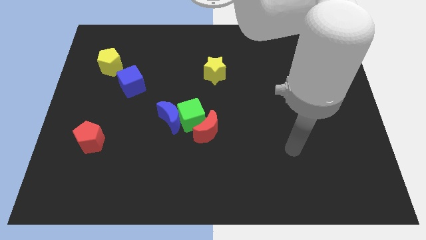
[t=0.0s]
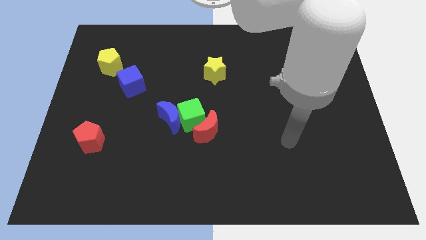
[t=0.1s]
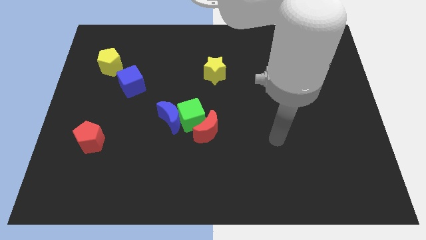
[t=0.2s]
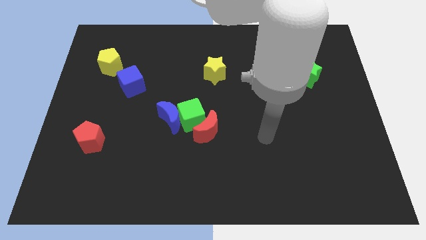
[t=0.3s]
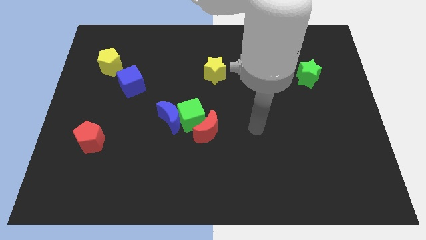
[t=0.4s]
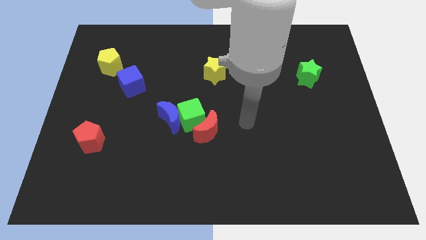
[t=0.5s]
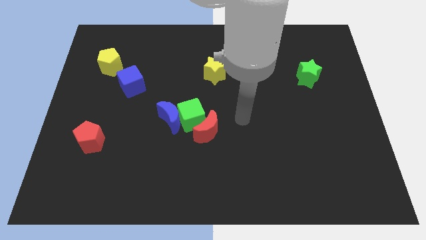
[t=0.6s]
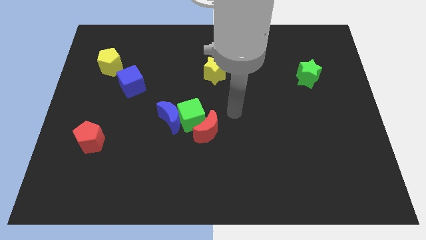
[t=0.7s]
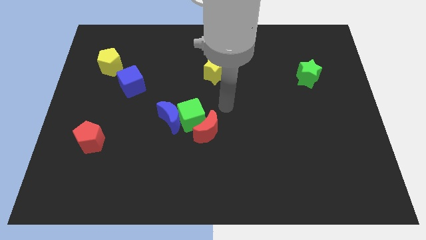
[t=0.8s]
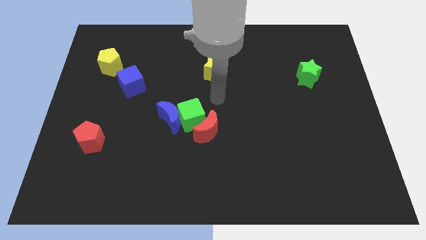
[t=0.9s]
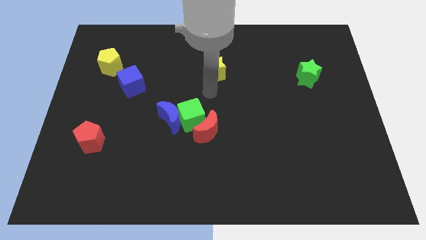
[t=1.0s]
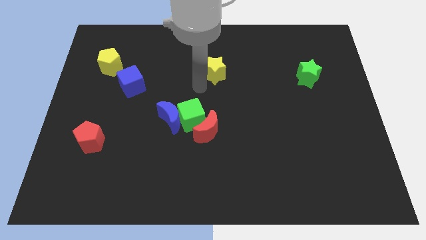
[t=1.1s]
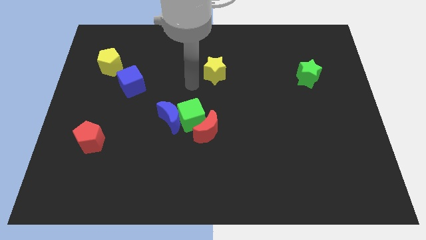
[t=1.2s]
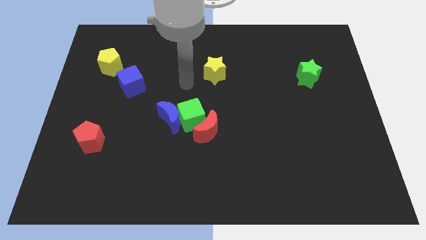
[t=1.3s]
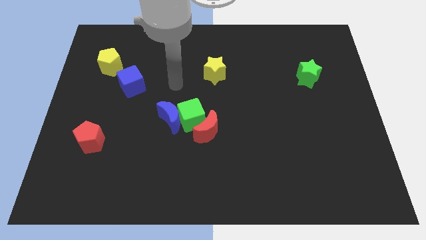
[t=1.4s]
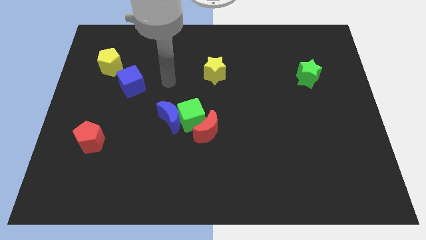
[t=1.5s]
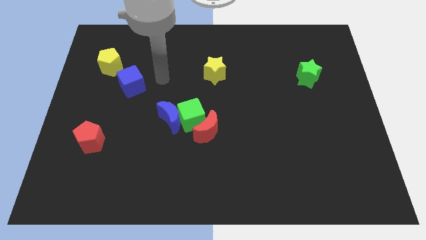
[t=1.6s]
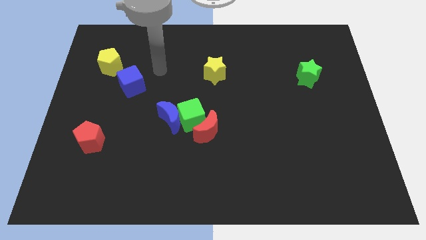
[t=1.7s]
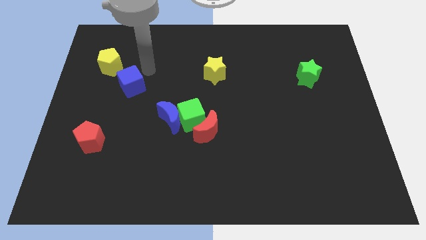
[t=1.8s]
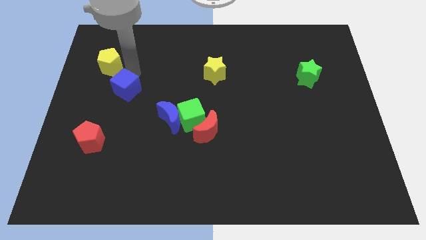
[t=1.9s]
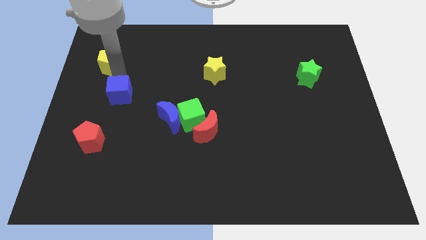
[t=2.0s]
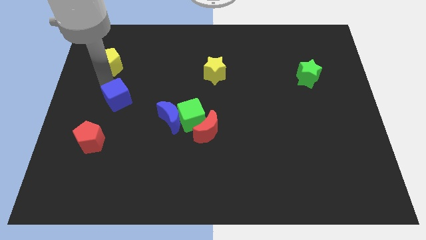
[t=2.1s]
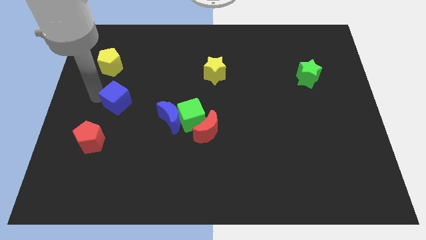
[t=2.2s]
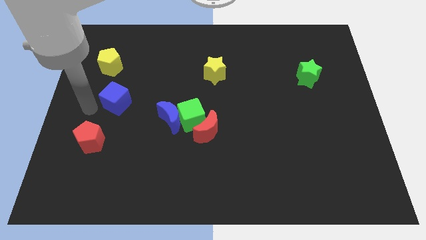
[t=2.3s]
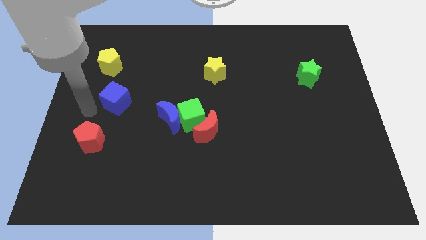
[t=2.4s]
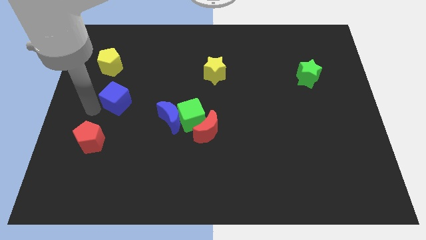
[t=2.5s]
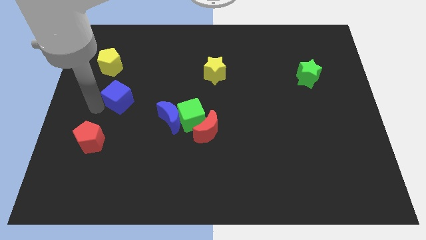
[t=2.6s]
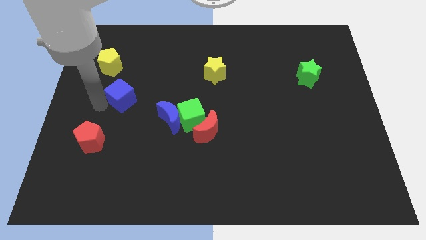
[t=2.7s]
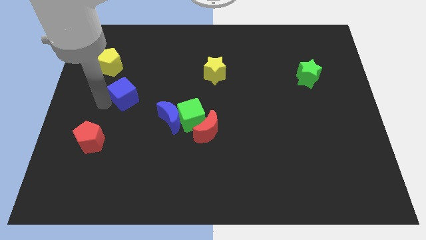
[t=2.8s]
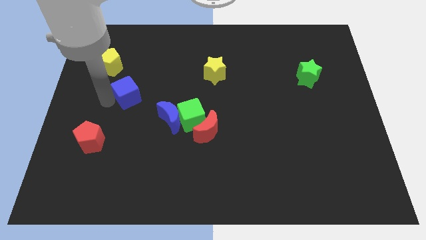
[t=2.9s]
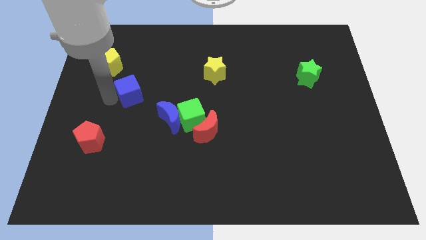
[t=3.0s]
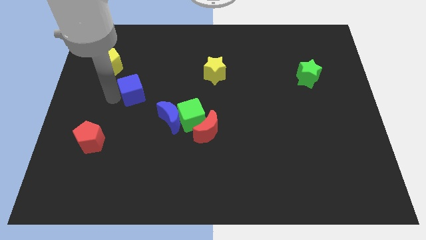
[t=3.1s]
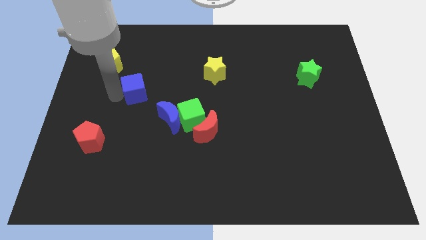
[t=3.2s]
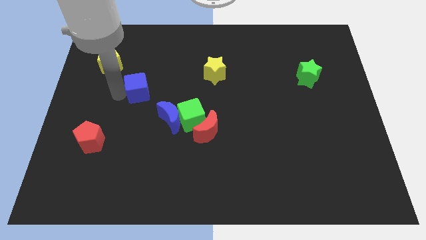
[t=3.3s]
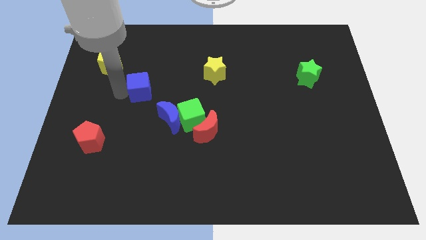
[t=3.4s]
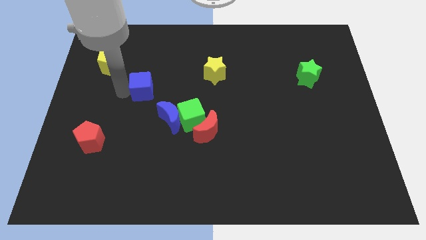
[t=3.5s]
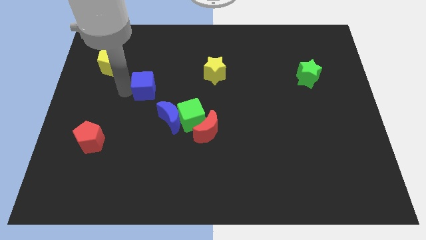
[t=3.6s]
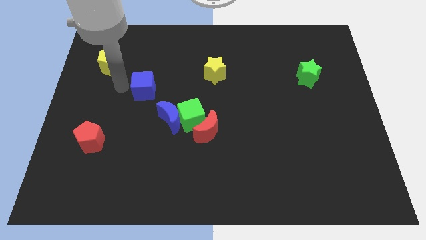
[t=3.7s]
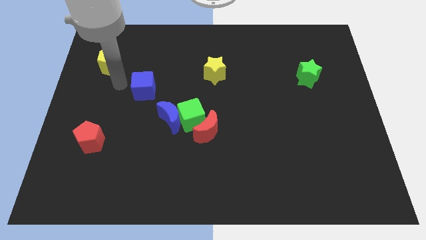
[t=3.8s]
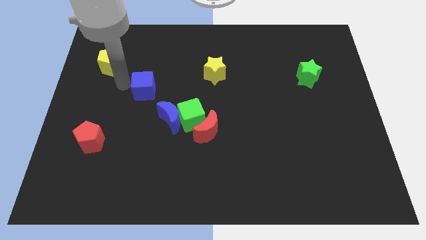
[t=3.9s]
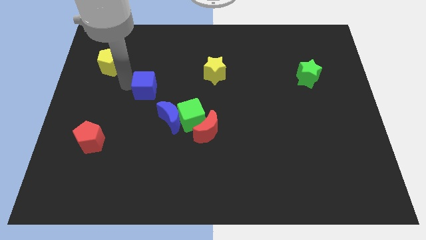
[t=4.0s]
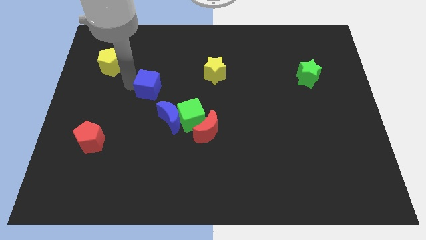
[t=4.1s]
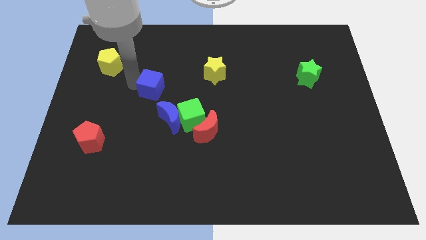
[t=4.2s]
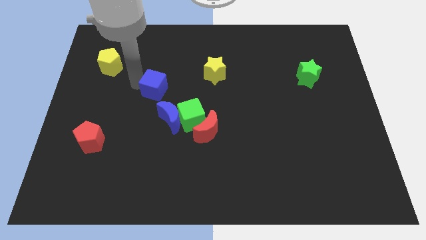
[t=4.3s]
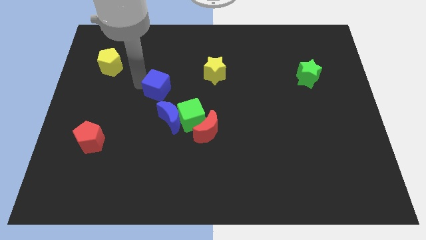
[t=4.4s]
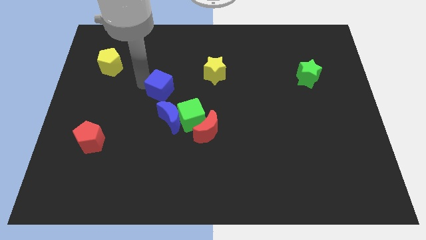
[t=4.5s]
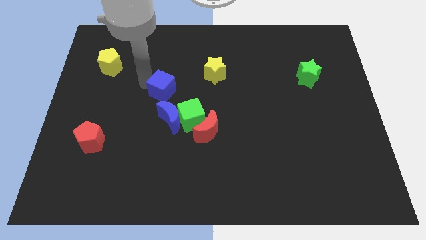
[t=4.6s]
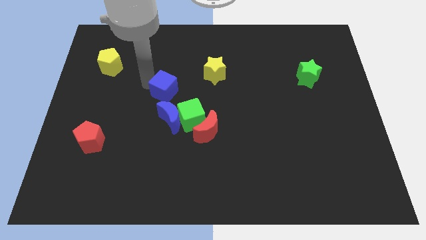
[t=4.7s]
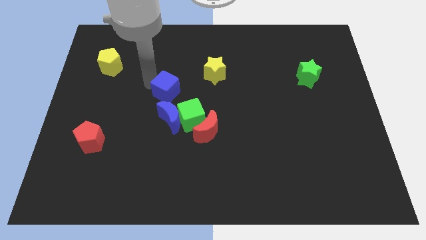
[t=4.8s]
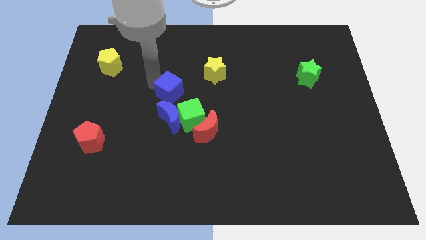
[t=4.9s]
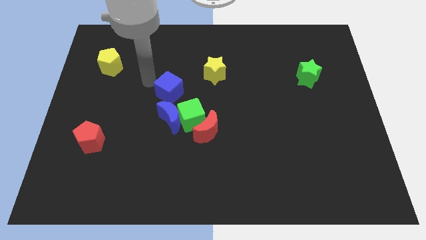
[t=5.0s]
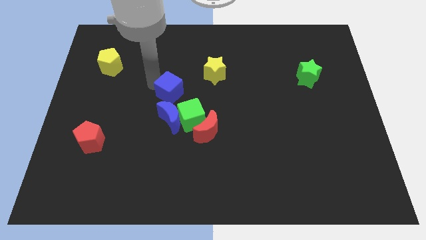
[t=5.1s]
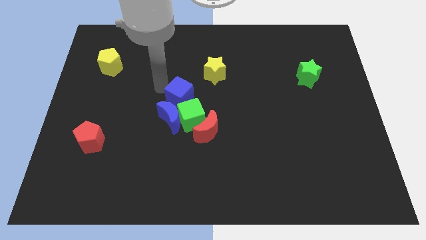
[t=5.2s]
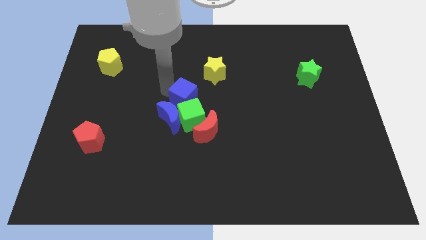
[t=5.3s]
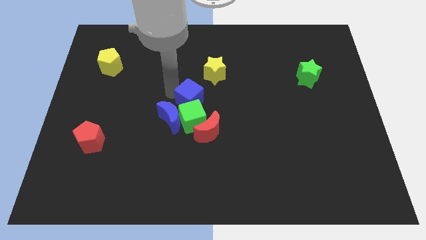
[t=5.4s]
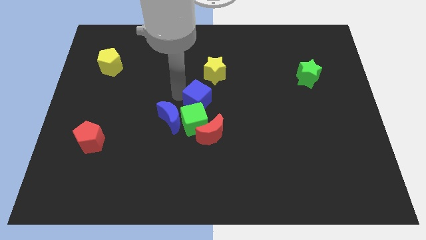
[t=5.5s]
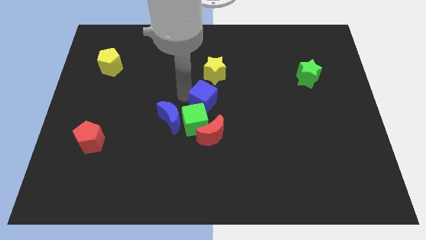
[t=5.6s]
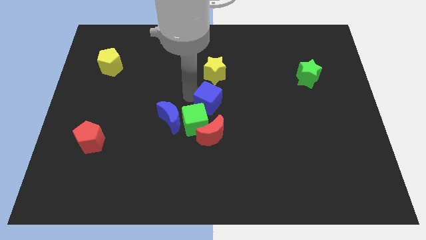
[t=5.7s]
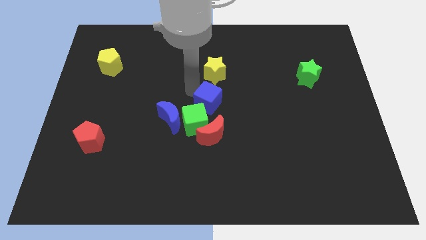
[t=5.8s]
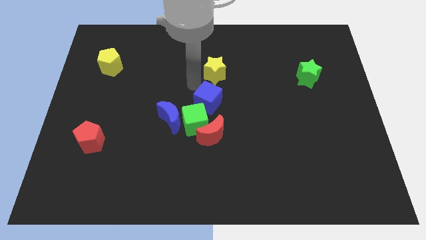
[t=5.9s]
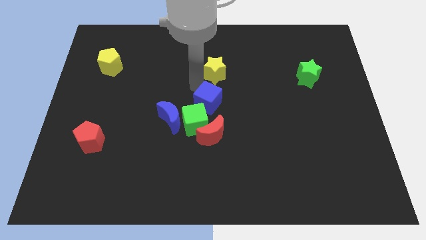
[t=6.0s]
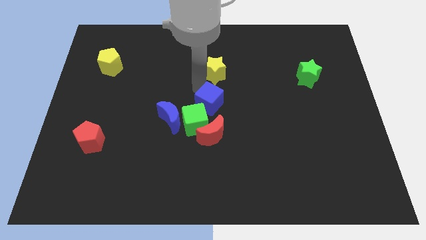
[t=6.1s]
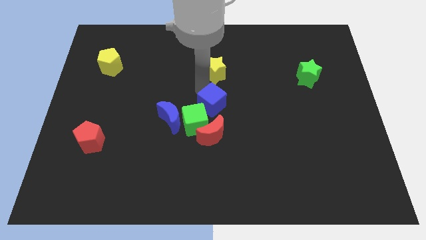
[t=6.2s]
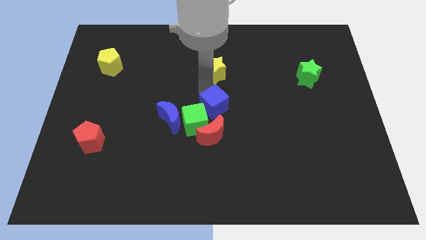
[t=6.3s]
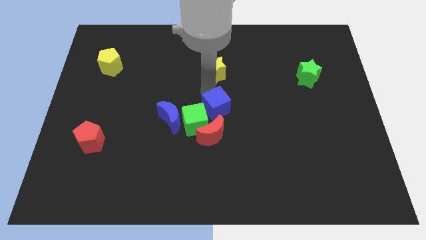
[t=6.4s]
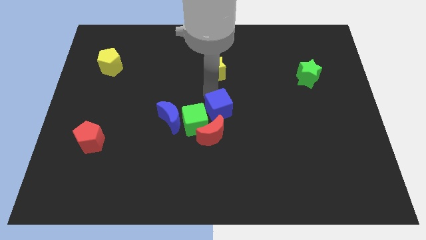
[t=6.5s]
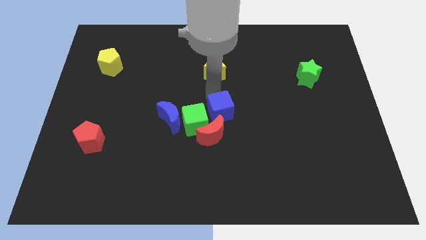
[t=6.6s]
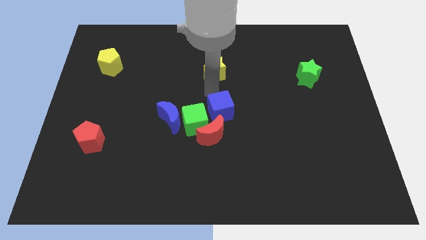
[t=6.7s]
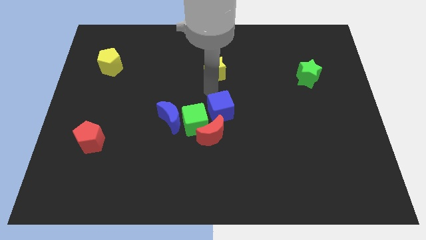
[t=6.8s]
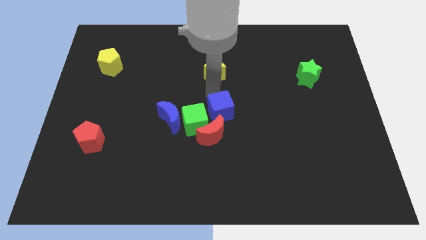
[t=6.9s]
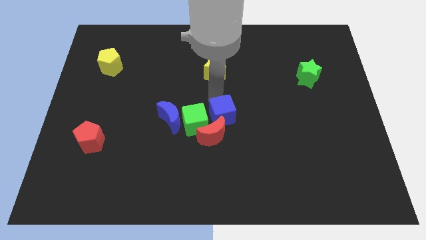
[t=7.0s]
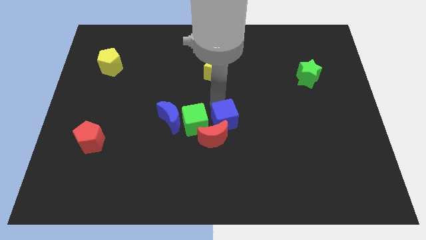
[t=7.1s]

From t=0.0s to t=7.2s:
move the blue cube downwards and to the right

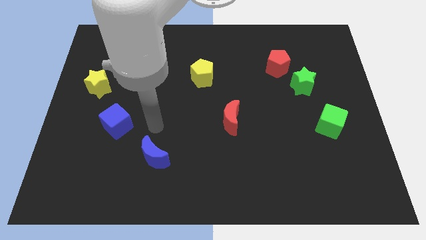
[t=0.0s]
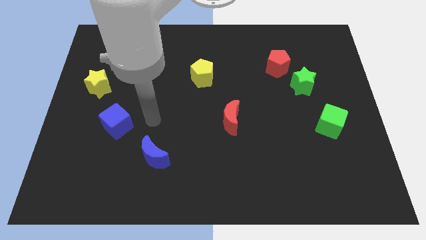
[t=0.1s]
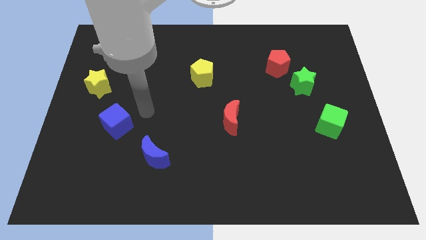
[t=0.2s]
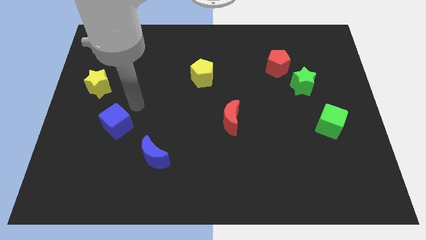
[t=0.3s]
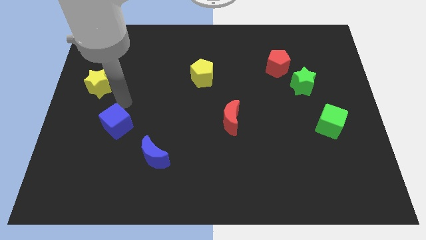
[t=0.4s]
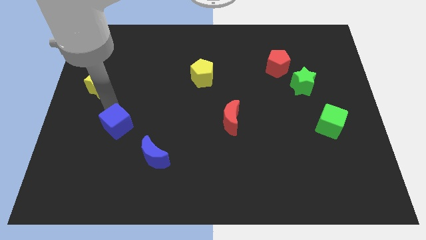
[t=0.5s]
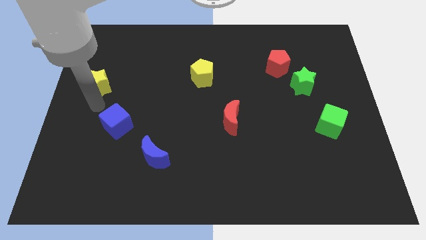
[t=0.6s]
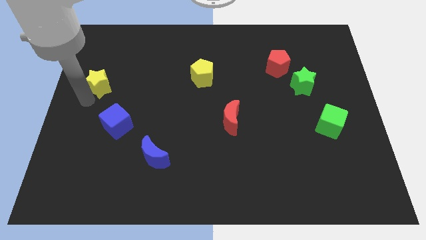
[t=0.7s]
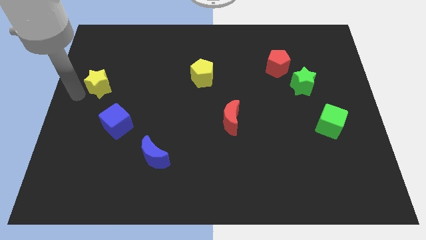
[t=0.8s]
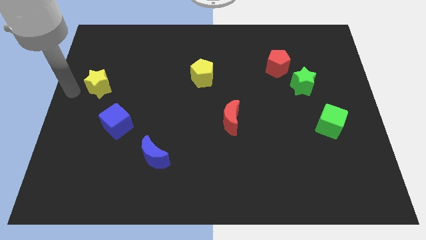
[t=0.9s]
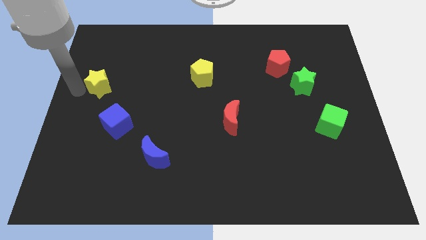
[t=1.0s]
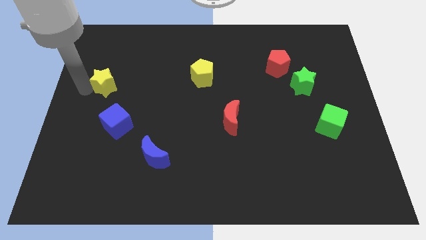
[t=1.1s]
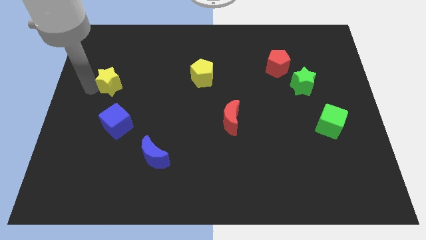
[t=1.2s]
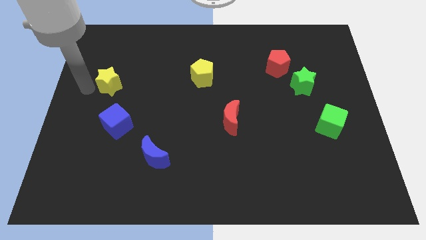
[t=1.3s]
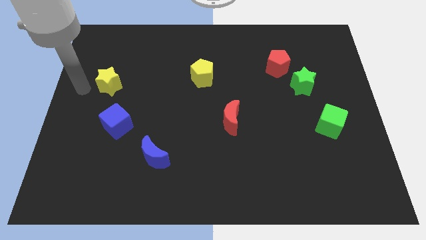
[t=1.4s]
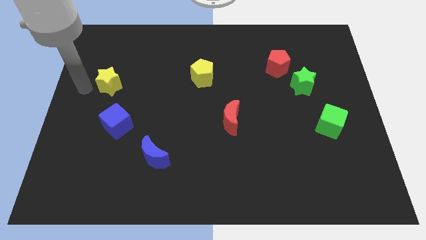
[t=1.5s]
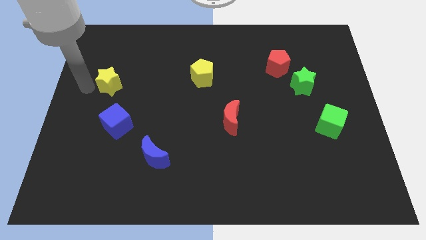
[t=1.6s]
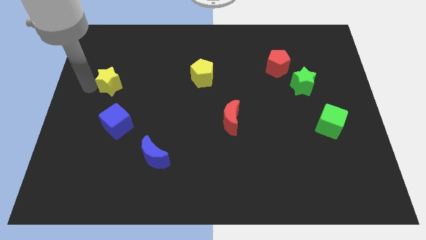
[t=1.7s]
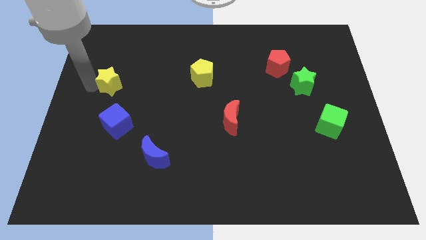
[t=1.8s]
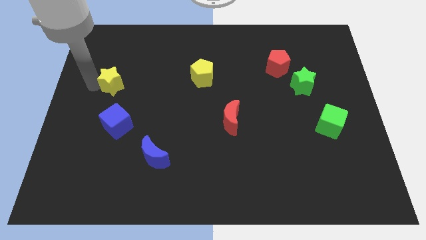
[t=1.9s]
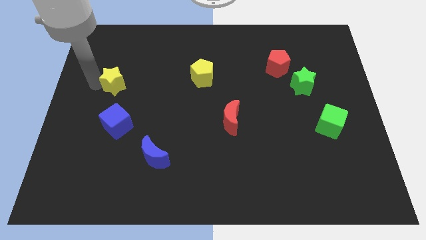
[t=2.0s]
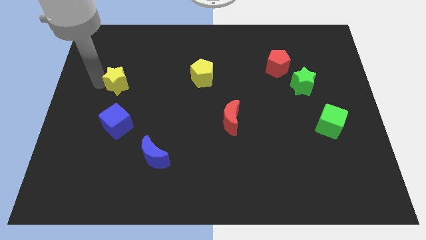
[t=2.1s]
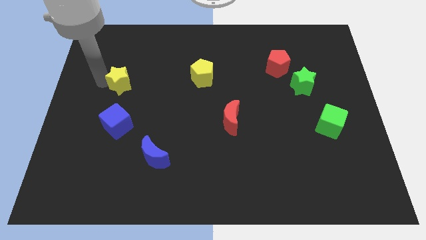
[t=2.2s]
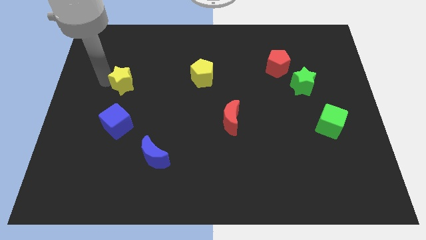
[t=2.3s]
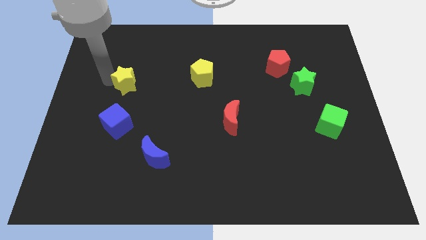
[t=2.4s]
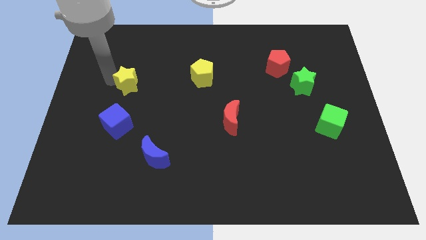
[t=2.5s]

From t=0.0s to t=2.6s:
move the yellow star a little right
